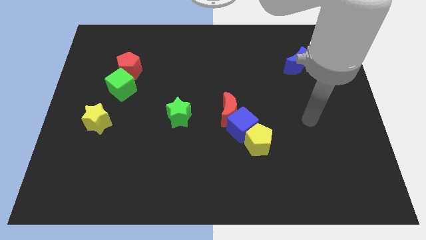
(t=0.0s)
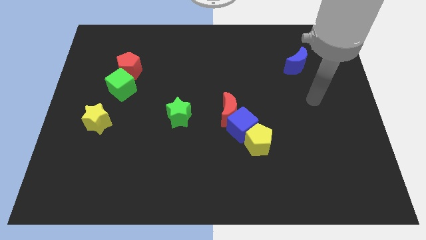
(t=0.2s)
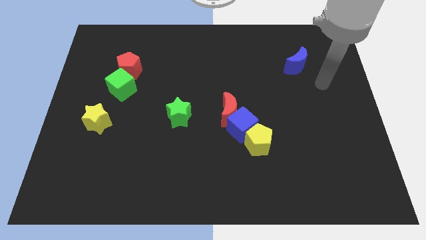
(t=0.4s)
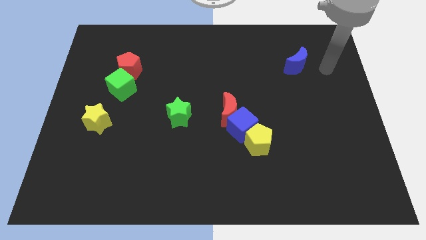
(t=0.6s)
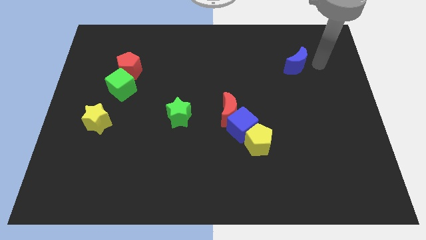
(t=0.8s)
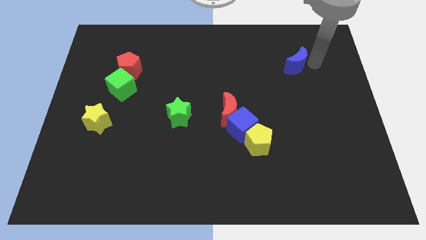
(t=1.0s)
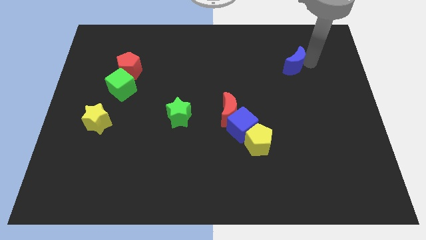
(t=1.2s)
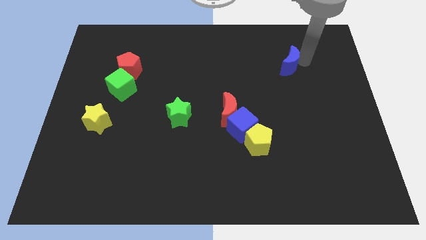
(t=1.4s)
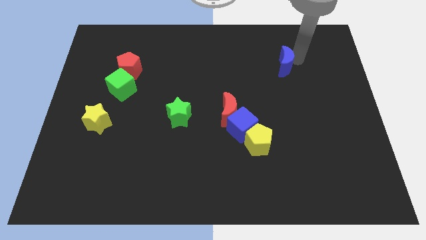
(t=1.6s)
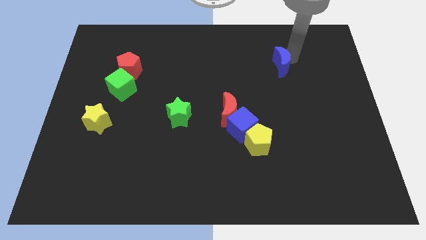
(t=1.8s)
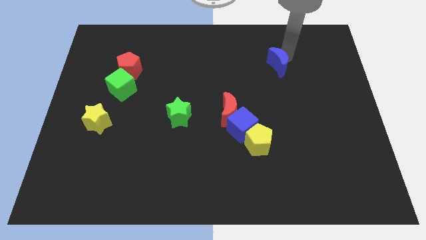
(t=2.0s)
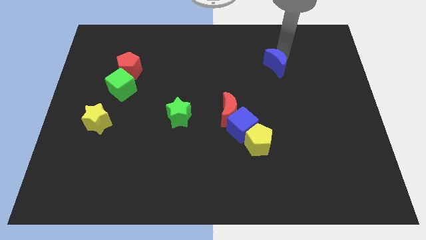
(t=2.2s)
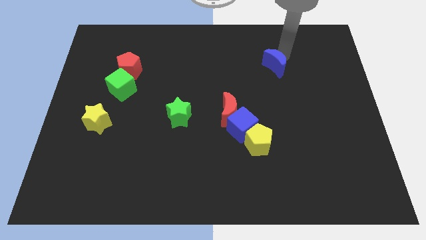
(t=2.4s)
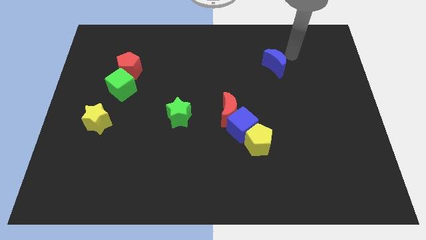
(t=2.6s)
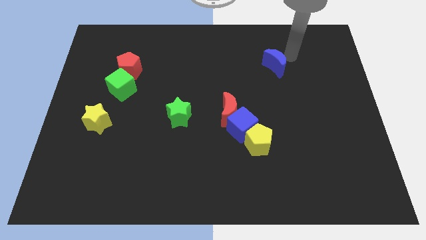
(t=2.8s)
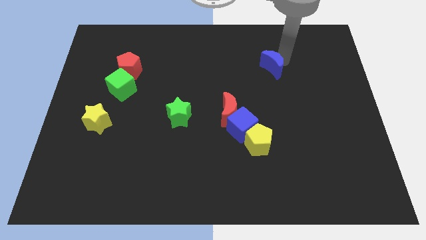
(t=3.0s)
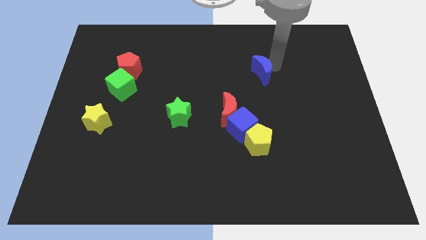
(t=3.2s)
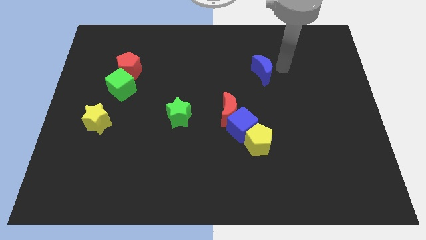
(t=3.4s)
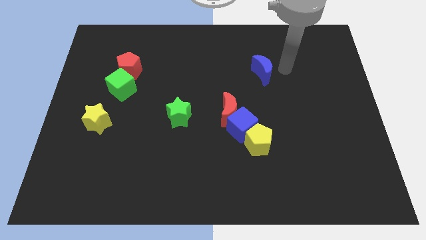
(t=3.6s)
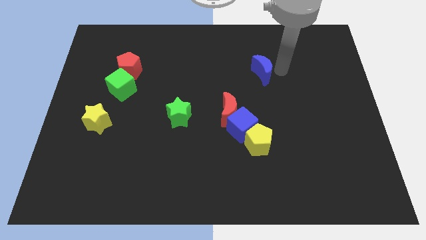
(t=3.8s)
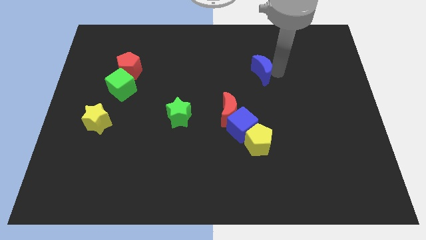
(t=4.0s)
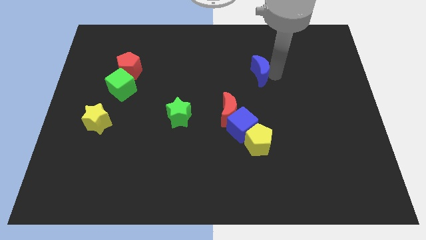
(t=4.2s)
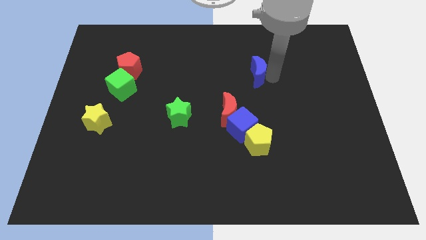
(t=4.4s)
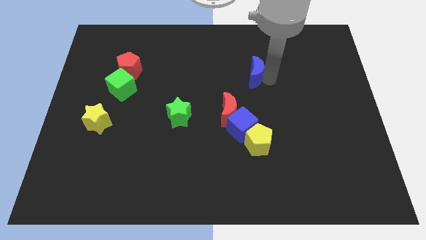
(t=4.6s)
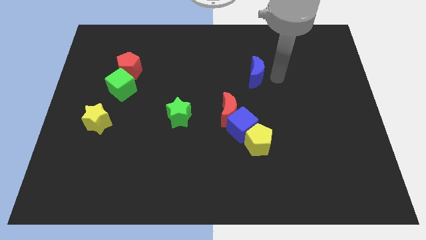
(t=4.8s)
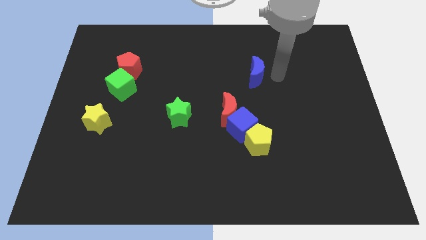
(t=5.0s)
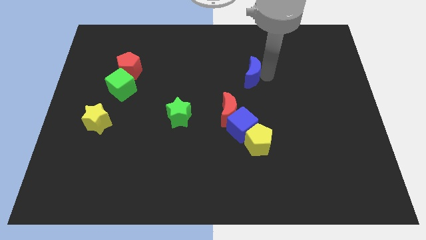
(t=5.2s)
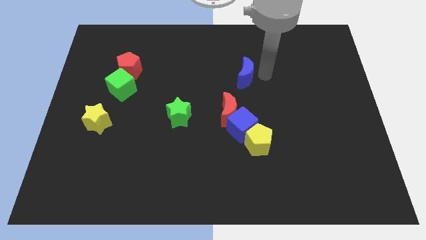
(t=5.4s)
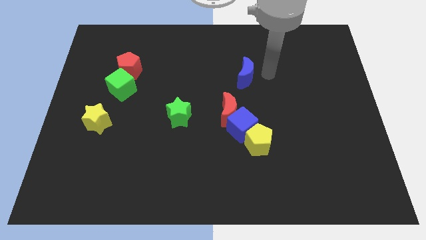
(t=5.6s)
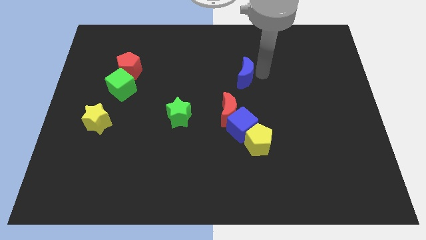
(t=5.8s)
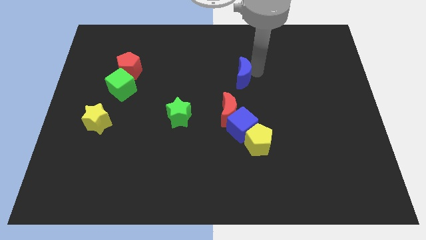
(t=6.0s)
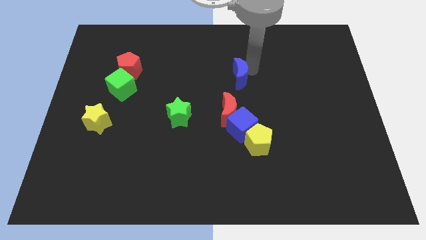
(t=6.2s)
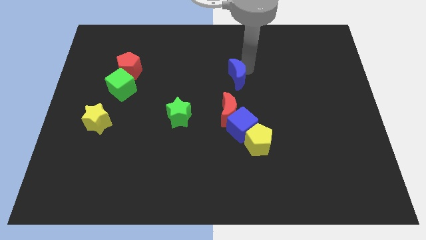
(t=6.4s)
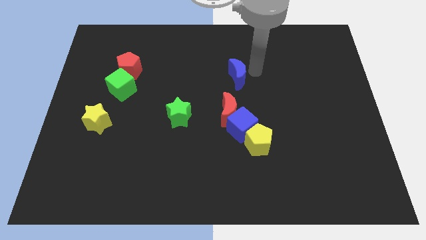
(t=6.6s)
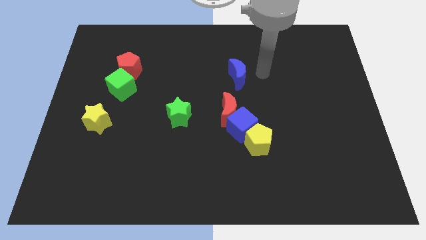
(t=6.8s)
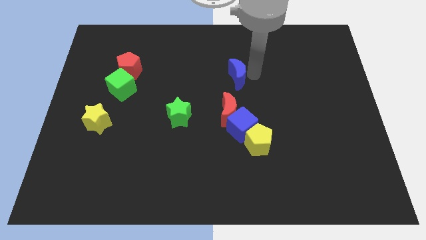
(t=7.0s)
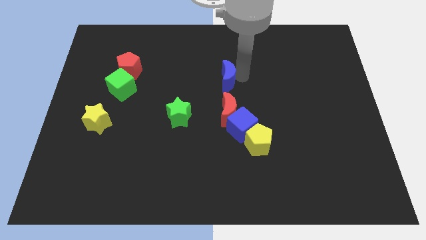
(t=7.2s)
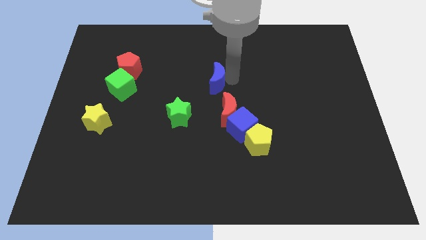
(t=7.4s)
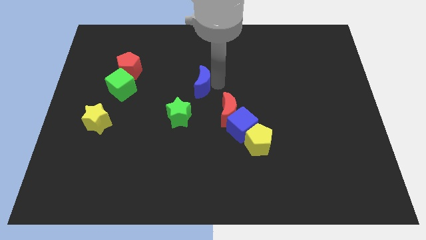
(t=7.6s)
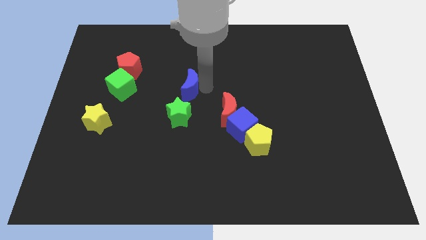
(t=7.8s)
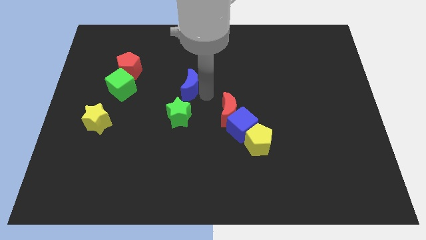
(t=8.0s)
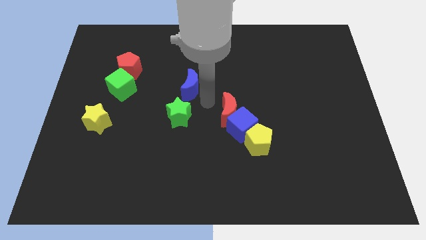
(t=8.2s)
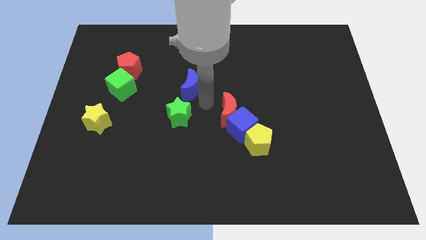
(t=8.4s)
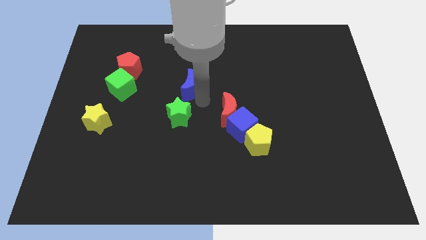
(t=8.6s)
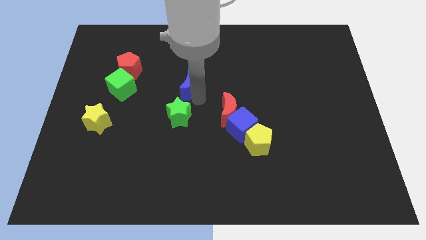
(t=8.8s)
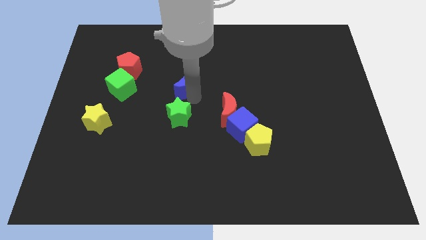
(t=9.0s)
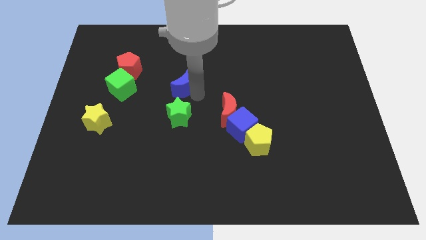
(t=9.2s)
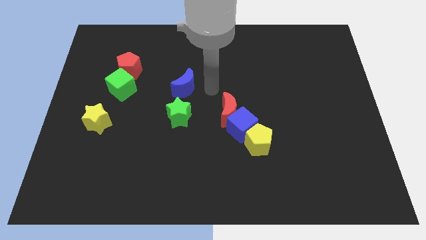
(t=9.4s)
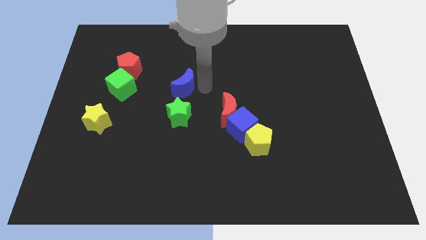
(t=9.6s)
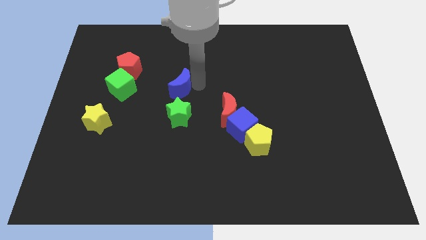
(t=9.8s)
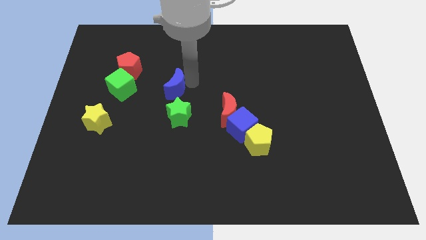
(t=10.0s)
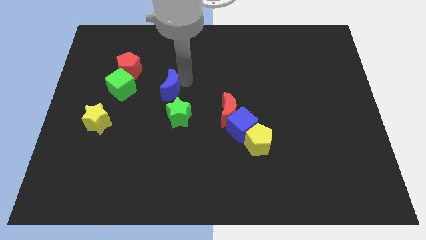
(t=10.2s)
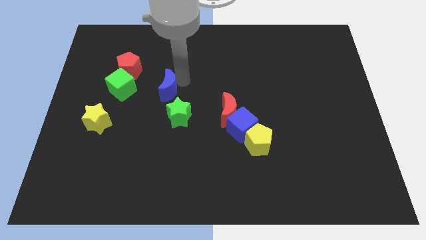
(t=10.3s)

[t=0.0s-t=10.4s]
move the blue moon to the bottom right of the red pentagon

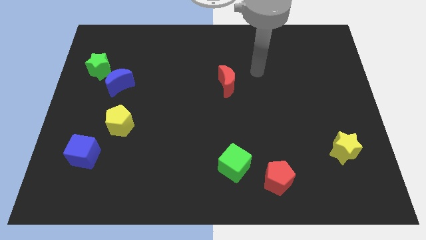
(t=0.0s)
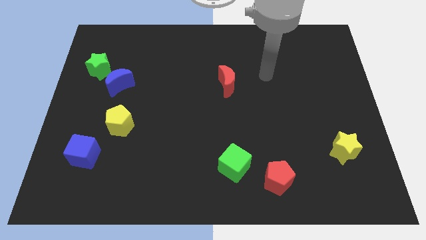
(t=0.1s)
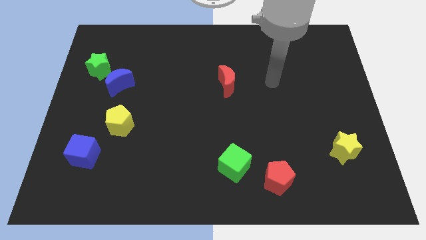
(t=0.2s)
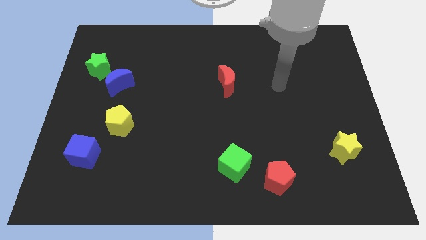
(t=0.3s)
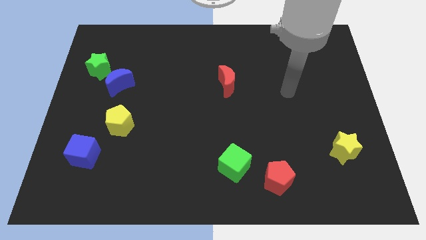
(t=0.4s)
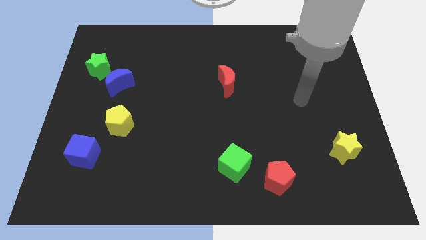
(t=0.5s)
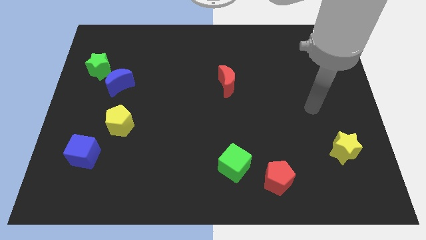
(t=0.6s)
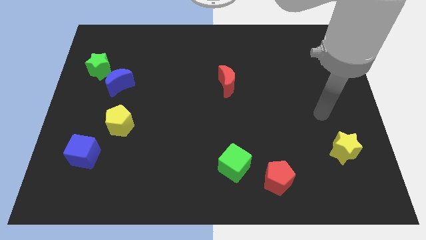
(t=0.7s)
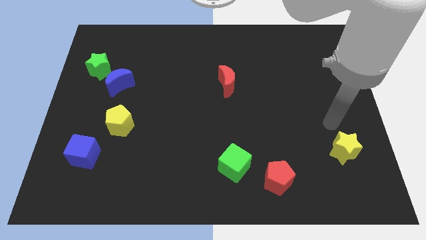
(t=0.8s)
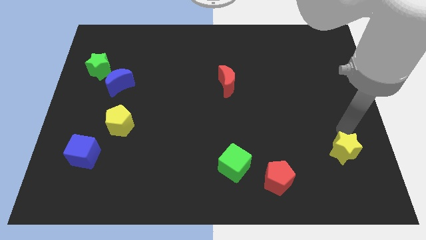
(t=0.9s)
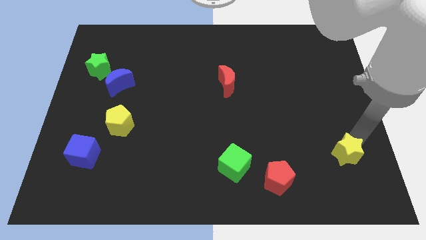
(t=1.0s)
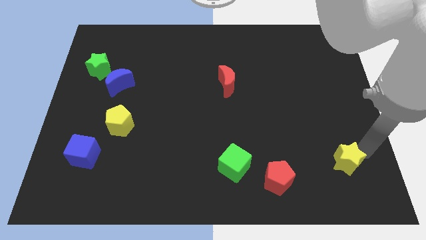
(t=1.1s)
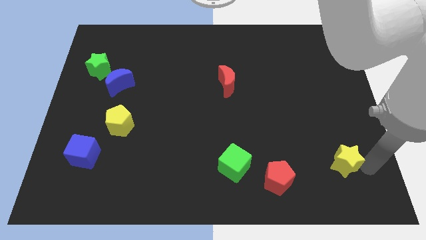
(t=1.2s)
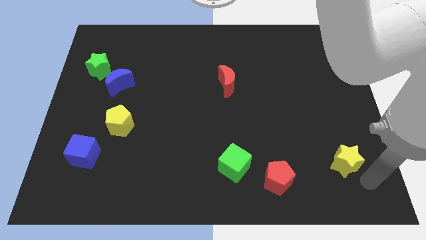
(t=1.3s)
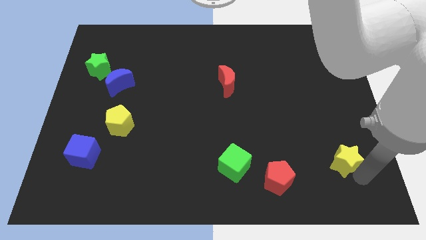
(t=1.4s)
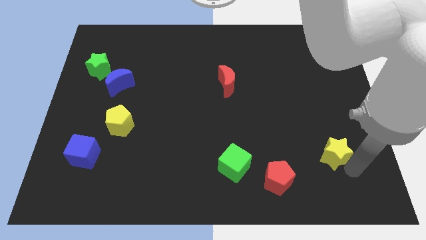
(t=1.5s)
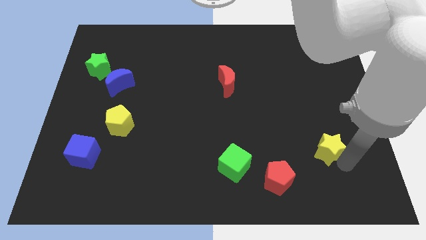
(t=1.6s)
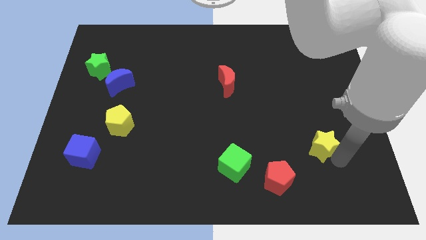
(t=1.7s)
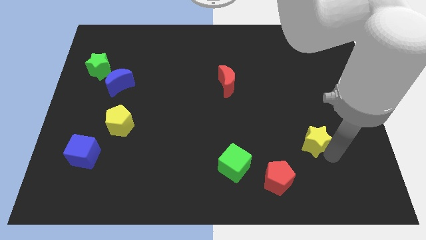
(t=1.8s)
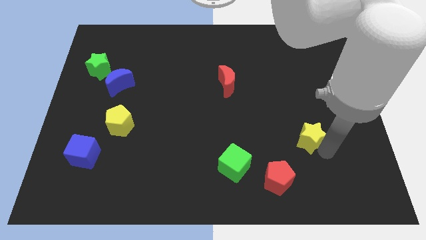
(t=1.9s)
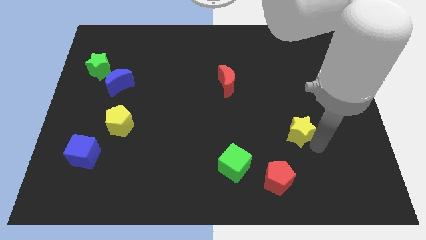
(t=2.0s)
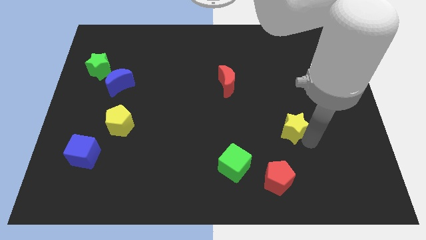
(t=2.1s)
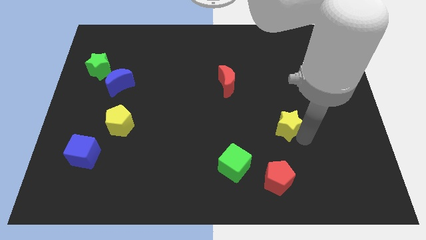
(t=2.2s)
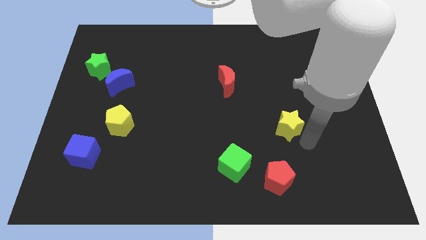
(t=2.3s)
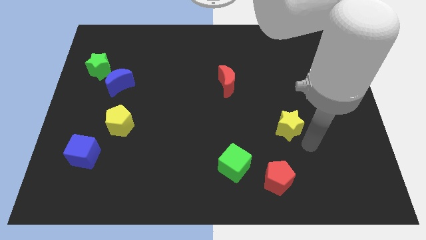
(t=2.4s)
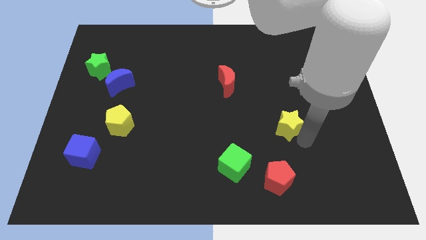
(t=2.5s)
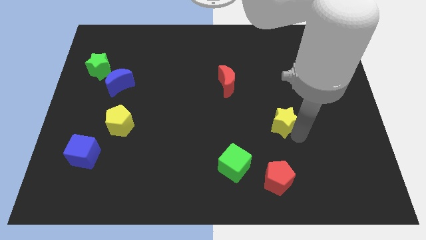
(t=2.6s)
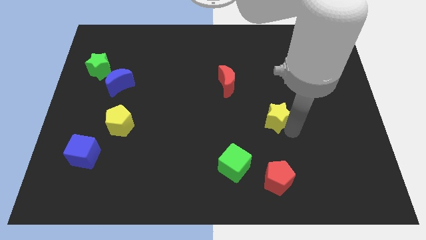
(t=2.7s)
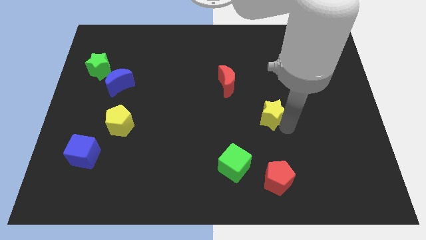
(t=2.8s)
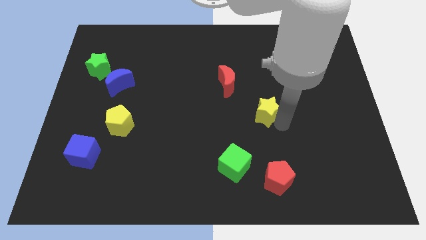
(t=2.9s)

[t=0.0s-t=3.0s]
push the yellow star diagonally down and to the right of the red moon
